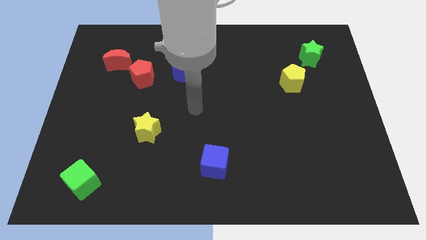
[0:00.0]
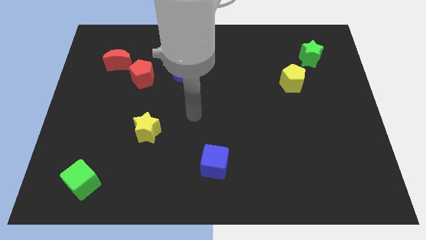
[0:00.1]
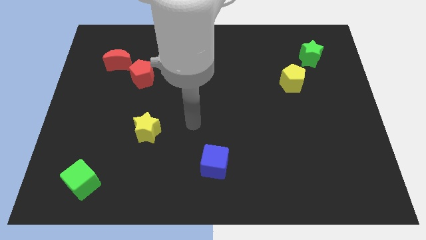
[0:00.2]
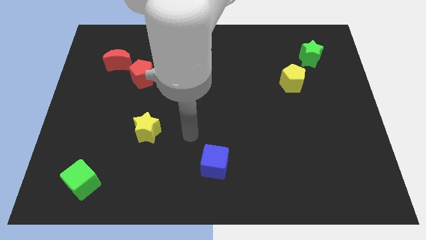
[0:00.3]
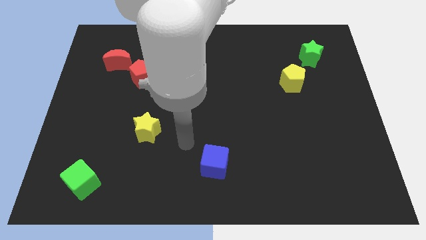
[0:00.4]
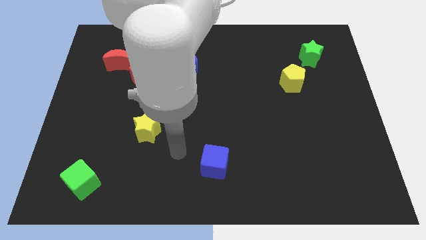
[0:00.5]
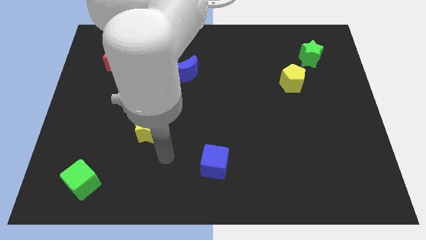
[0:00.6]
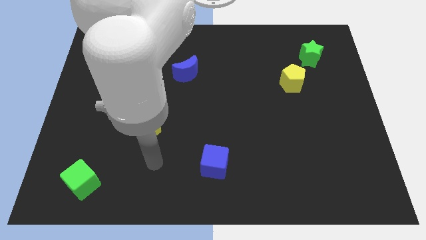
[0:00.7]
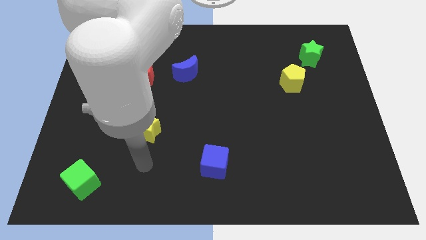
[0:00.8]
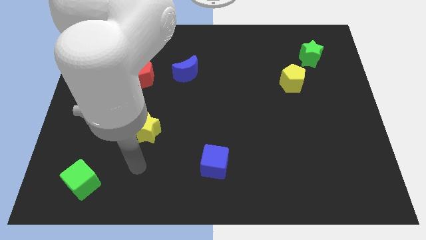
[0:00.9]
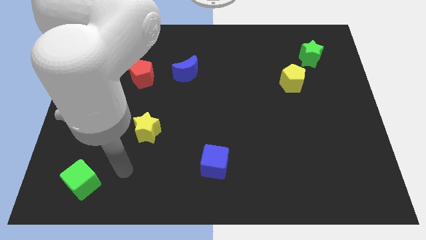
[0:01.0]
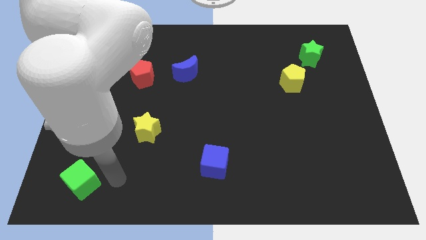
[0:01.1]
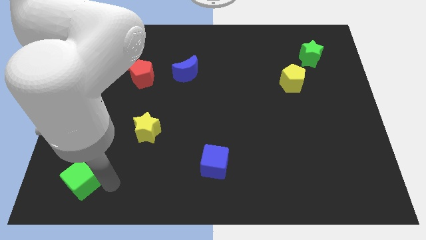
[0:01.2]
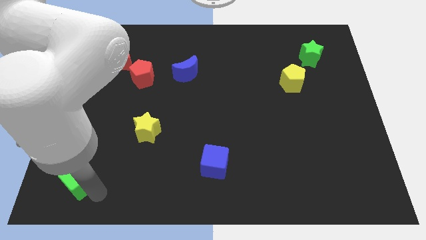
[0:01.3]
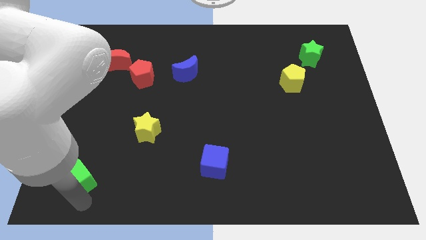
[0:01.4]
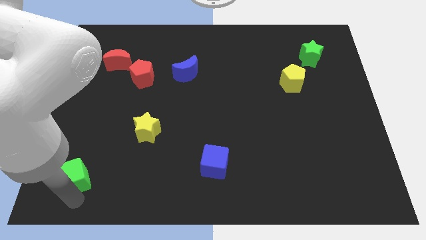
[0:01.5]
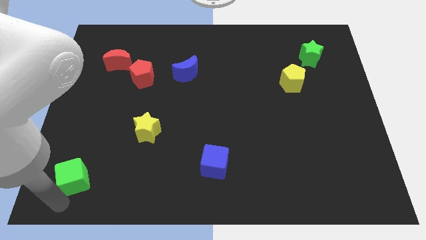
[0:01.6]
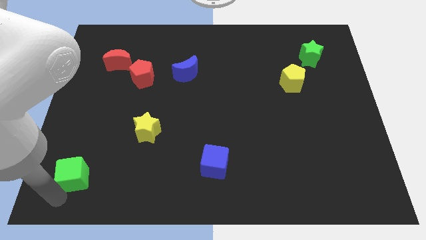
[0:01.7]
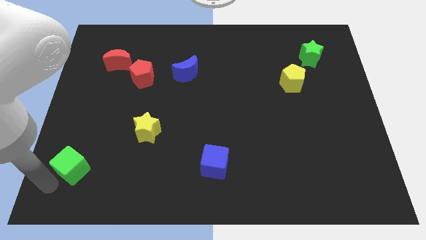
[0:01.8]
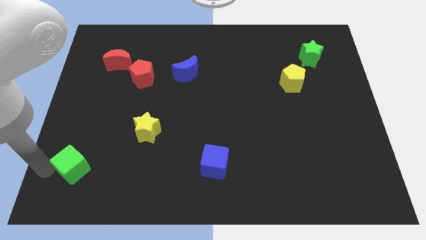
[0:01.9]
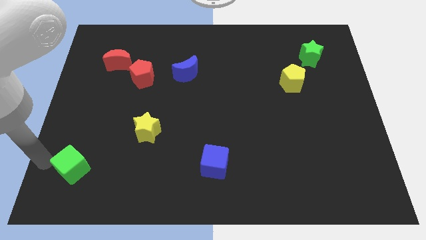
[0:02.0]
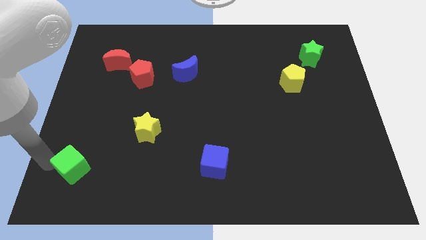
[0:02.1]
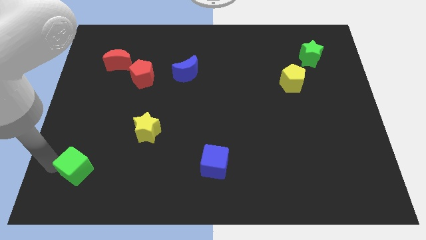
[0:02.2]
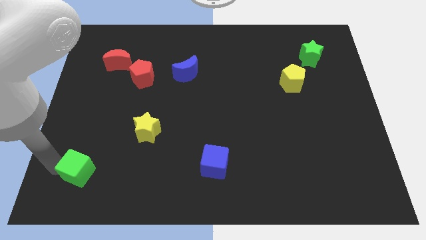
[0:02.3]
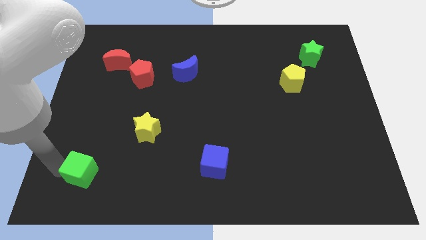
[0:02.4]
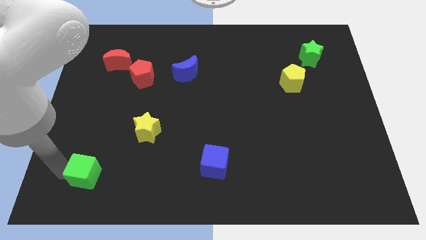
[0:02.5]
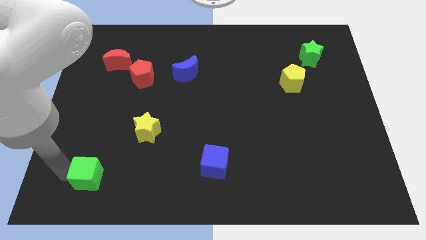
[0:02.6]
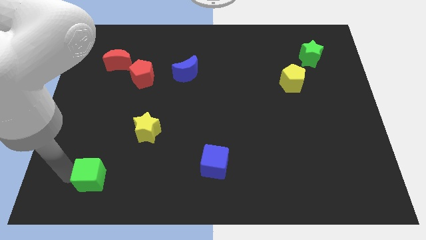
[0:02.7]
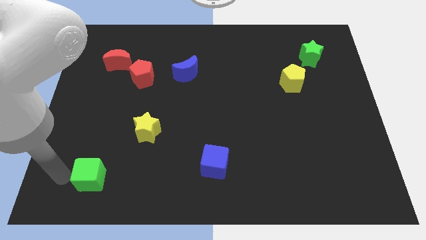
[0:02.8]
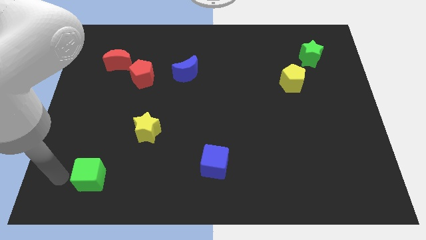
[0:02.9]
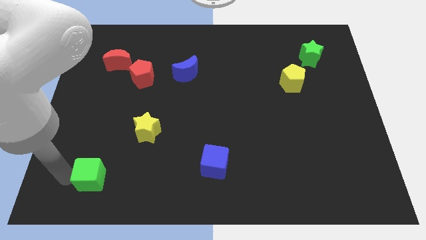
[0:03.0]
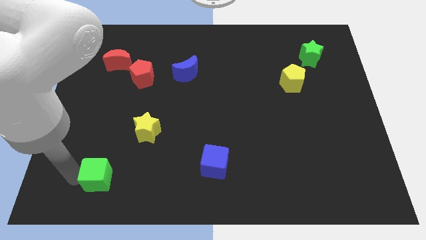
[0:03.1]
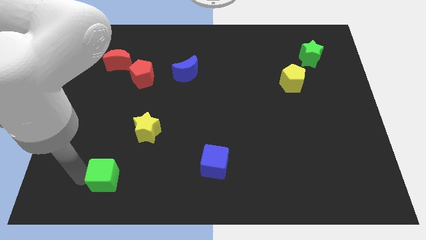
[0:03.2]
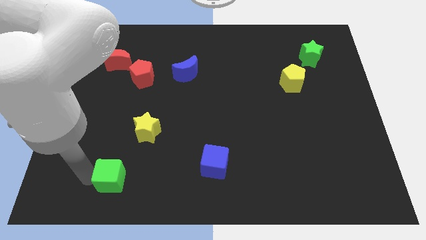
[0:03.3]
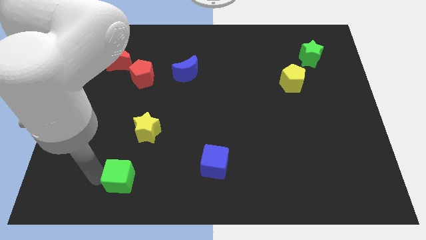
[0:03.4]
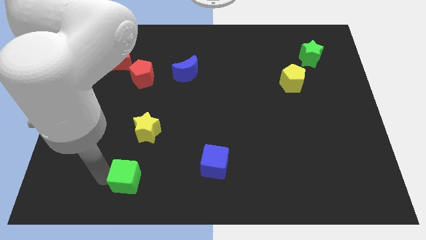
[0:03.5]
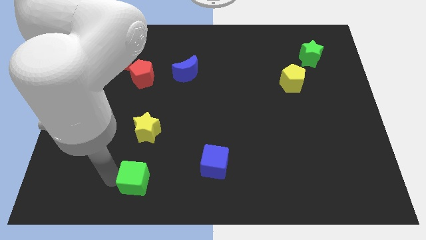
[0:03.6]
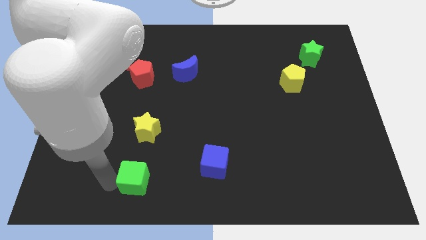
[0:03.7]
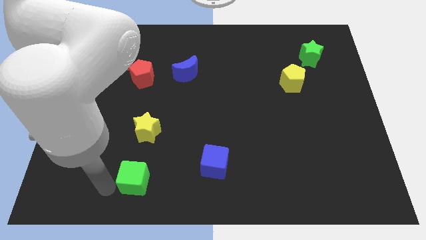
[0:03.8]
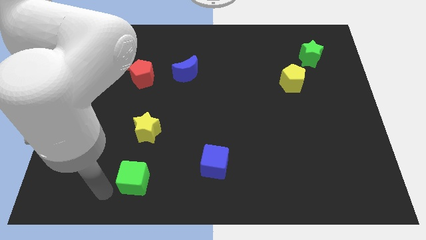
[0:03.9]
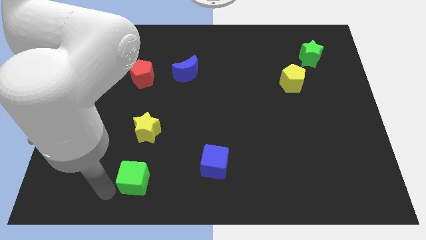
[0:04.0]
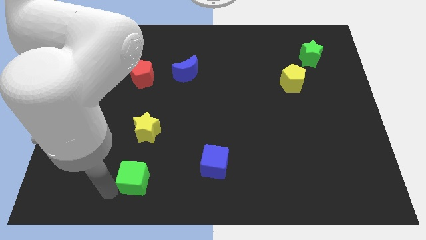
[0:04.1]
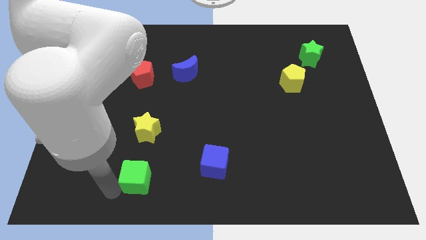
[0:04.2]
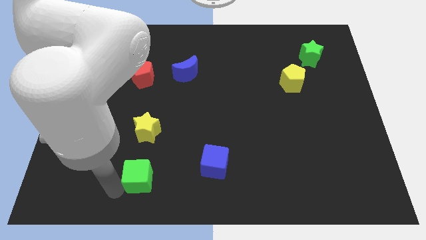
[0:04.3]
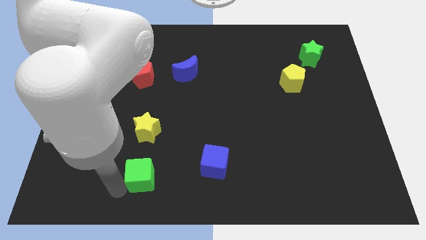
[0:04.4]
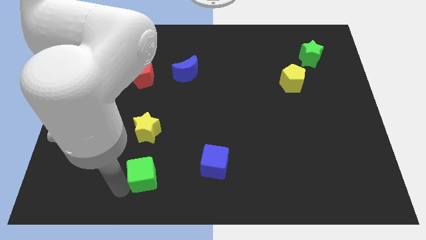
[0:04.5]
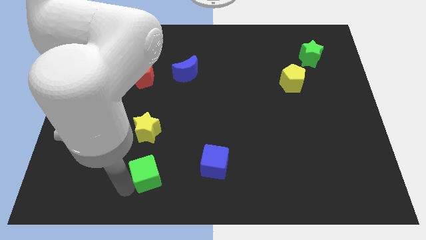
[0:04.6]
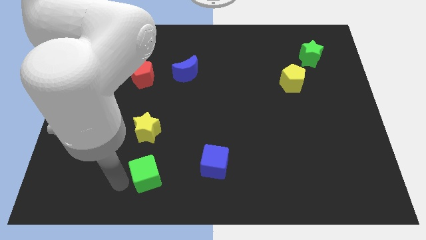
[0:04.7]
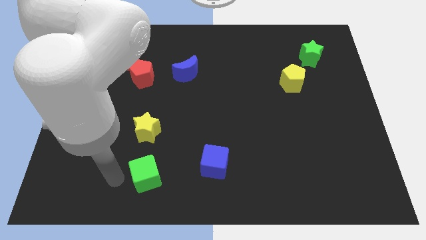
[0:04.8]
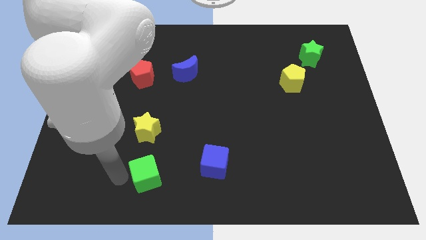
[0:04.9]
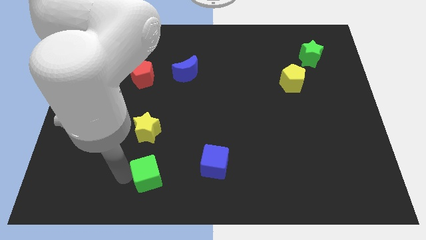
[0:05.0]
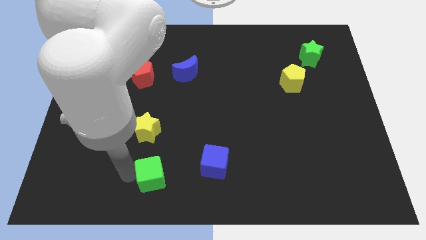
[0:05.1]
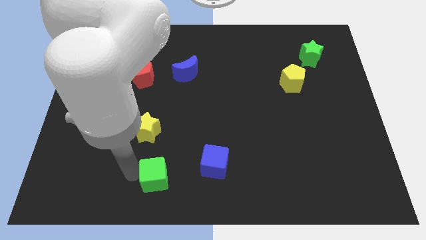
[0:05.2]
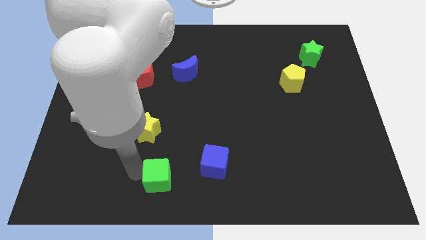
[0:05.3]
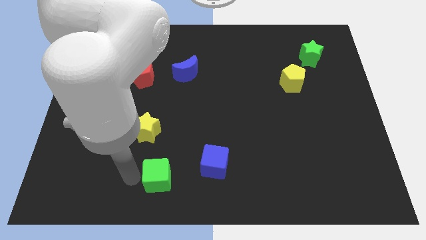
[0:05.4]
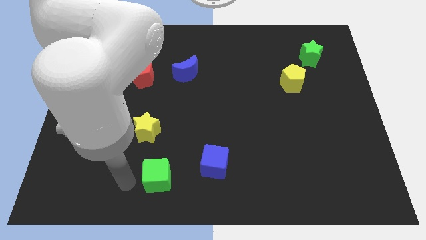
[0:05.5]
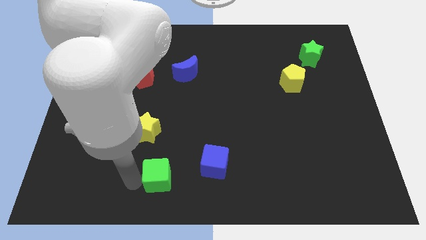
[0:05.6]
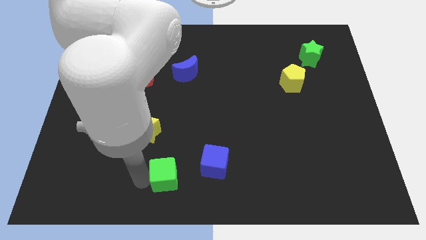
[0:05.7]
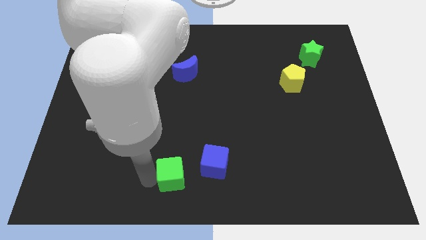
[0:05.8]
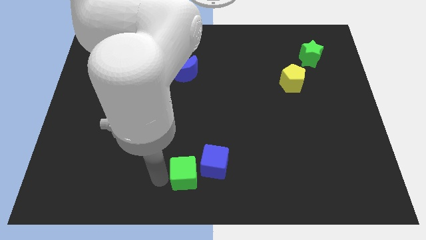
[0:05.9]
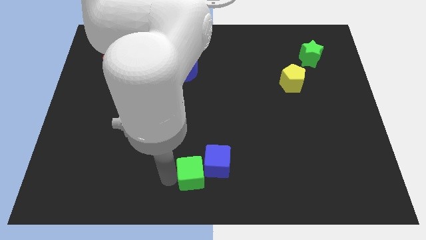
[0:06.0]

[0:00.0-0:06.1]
move the green cube towards the blue cube

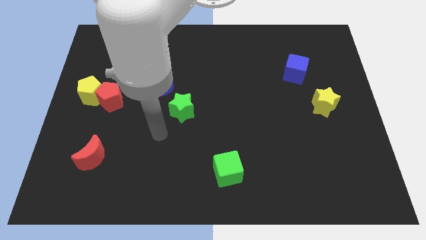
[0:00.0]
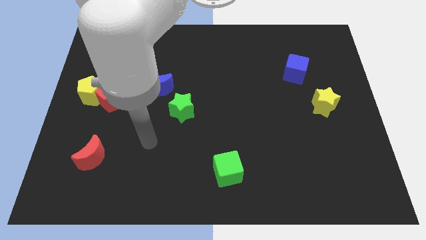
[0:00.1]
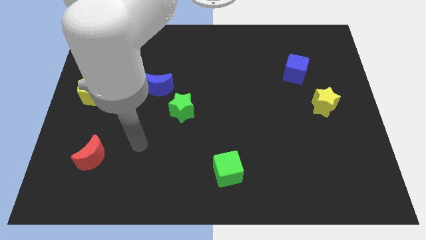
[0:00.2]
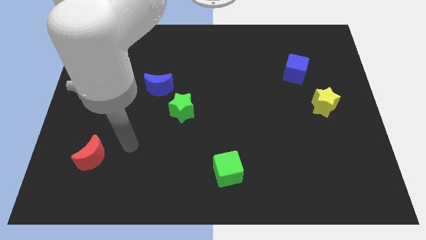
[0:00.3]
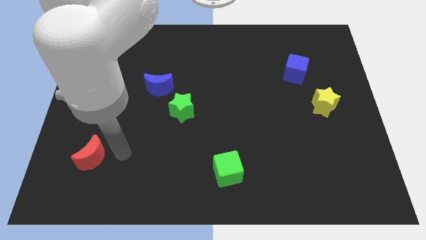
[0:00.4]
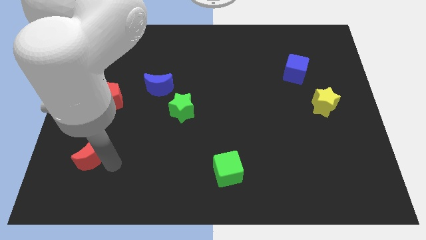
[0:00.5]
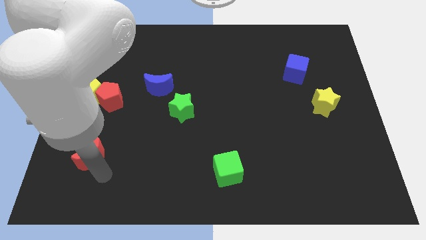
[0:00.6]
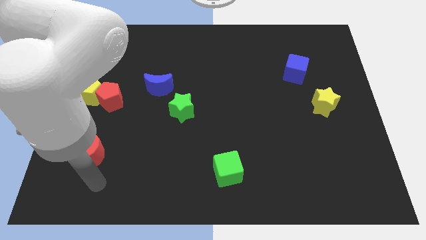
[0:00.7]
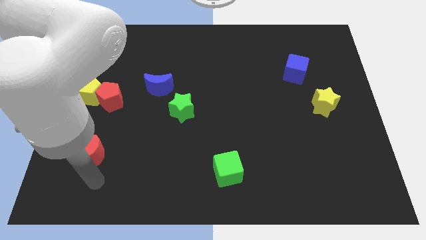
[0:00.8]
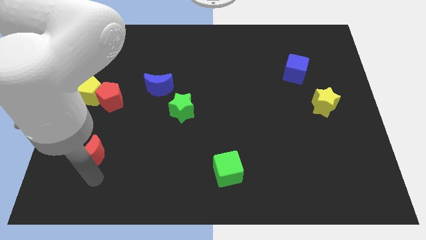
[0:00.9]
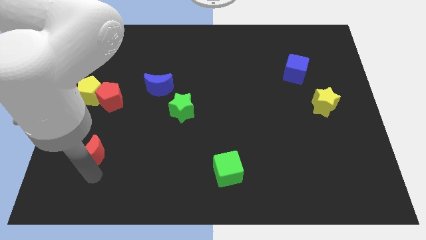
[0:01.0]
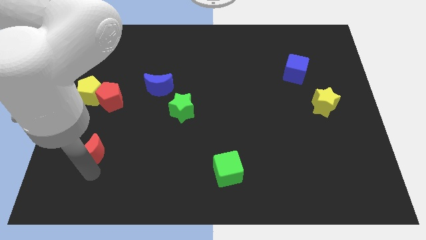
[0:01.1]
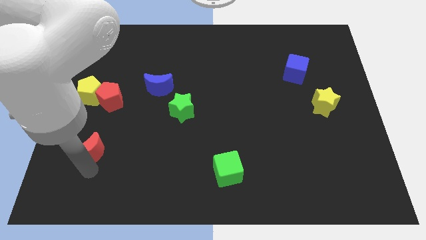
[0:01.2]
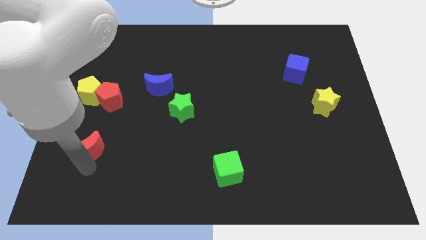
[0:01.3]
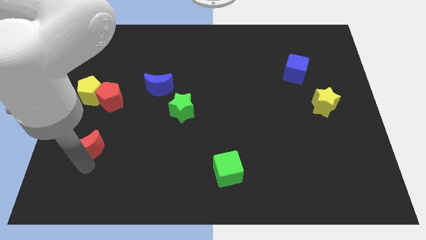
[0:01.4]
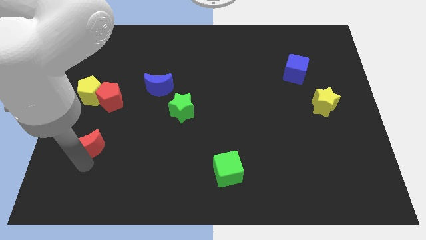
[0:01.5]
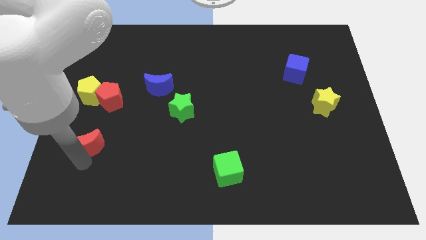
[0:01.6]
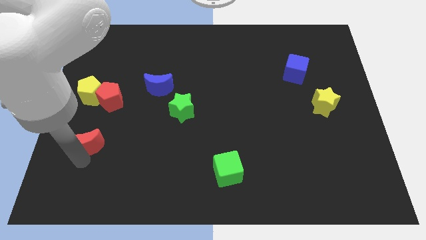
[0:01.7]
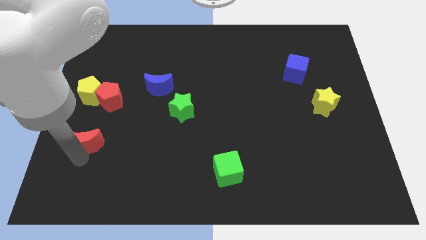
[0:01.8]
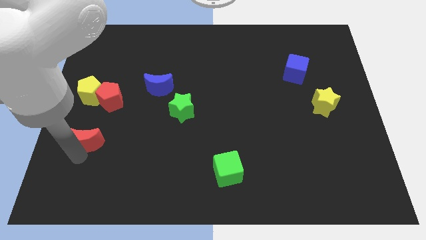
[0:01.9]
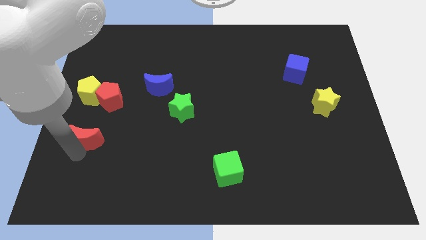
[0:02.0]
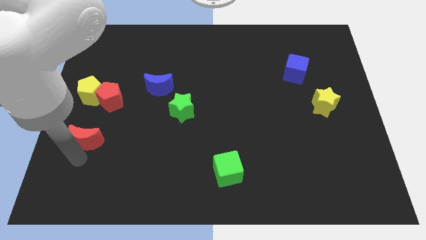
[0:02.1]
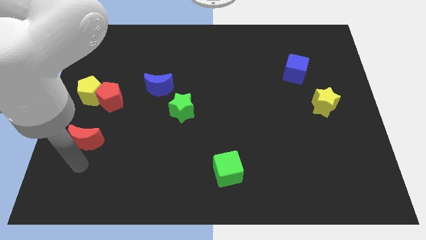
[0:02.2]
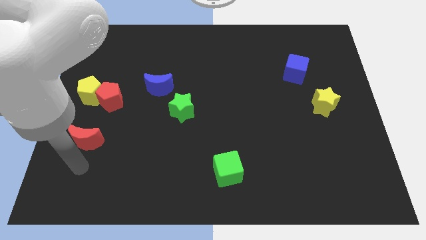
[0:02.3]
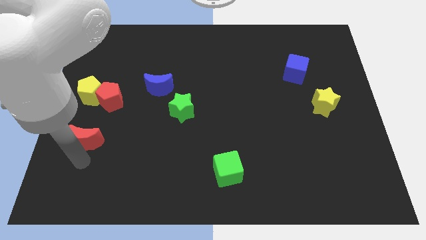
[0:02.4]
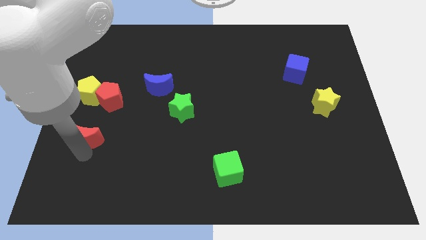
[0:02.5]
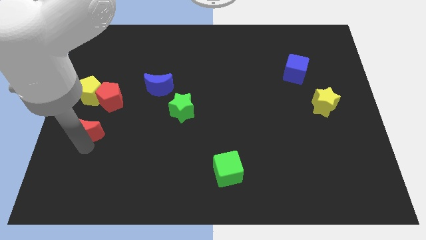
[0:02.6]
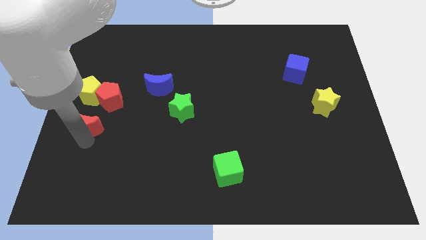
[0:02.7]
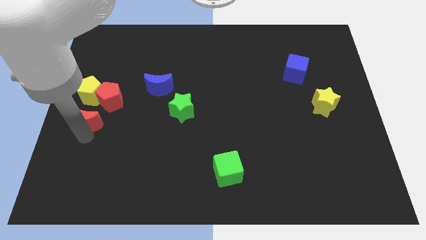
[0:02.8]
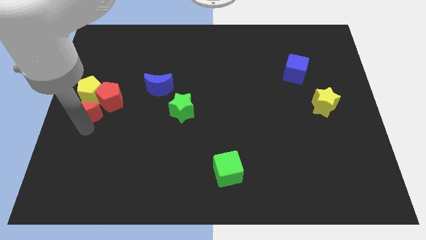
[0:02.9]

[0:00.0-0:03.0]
move the red moon towards the yellow pentagon
